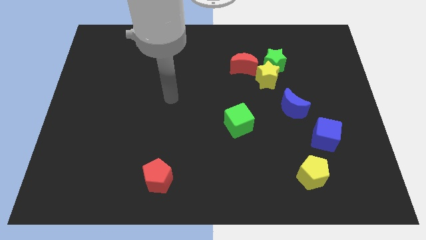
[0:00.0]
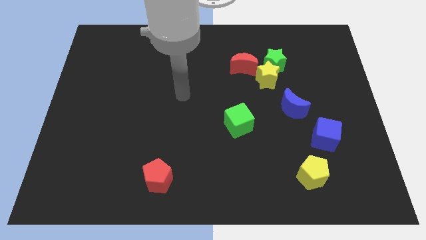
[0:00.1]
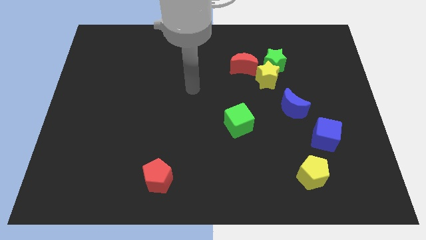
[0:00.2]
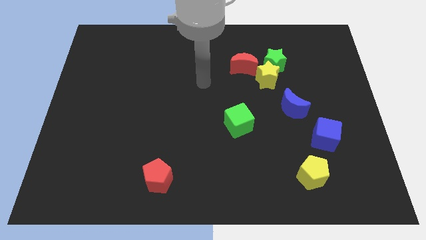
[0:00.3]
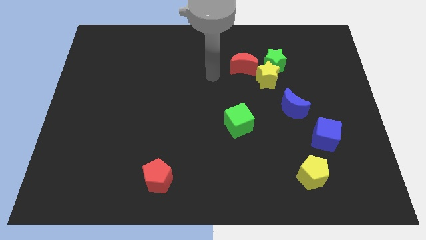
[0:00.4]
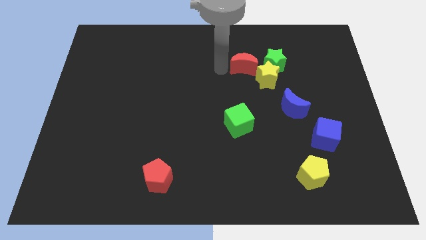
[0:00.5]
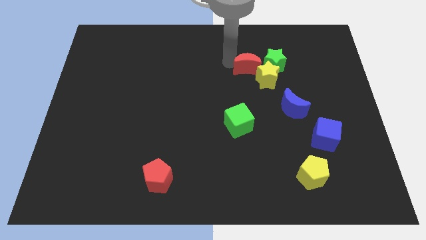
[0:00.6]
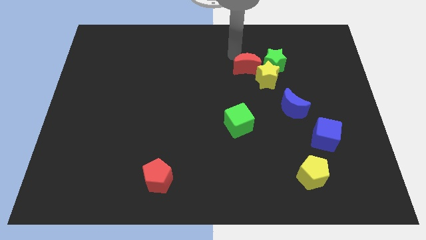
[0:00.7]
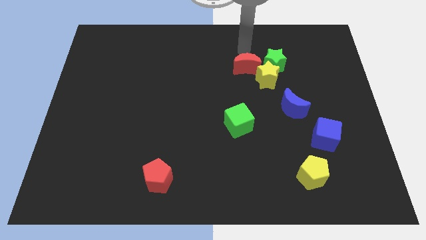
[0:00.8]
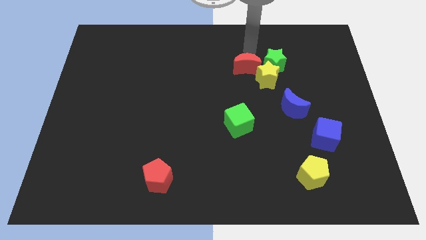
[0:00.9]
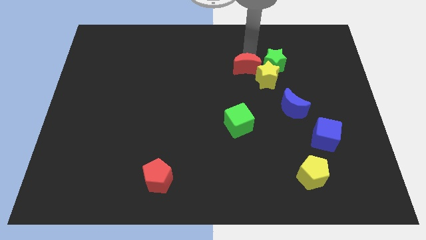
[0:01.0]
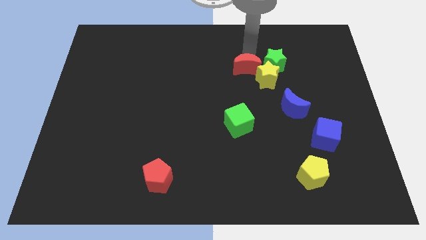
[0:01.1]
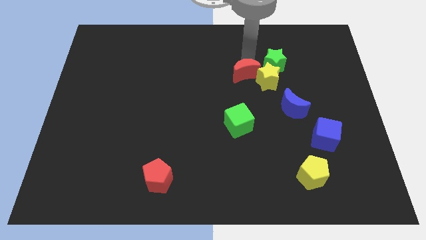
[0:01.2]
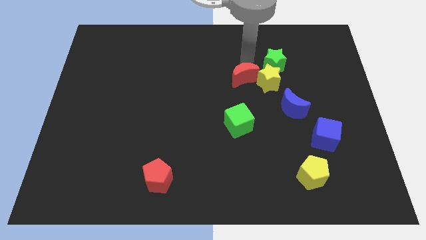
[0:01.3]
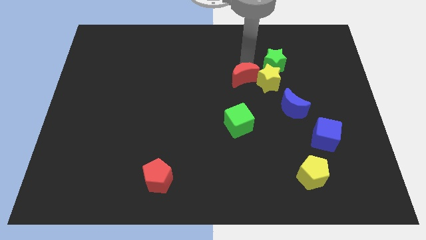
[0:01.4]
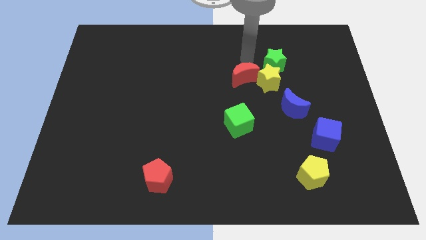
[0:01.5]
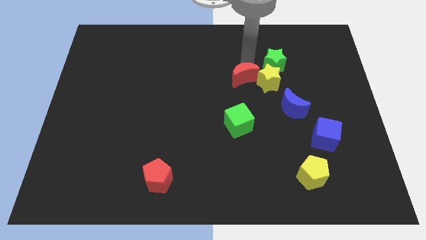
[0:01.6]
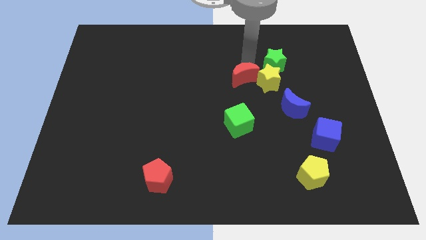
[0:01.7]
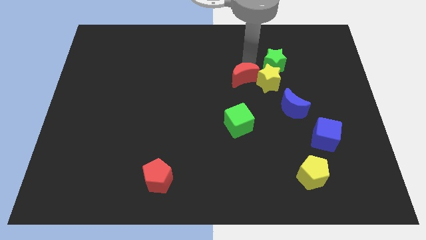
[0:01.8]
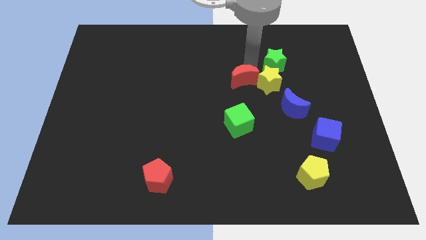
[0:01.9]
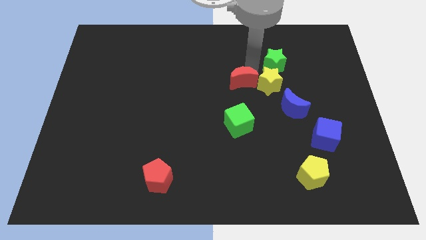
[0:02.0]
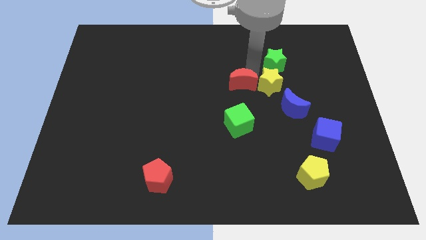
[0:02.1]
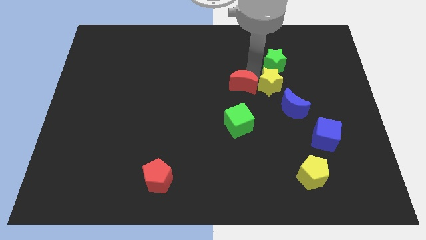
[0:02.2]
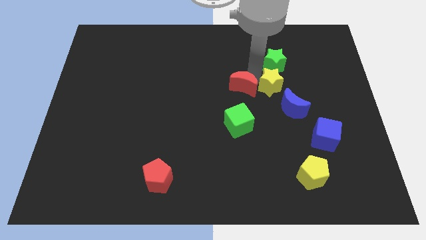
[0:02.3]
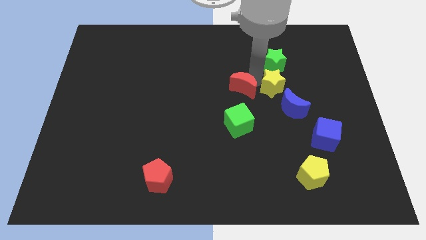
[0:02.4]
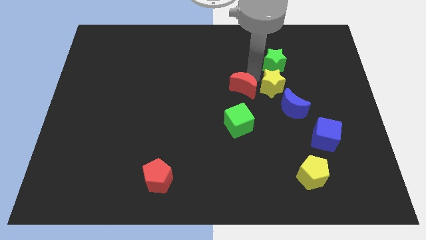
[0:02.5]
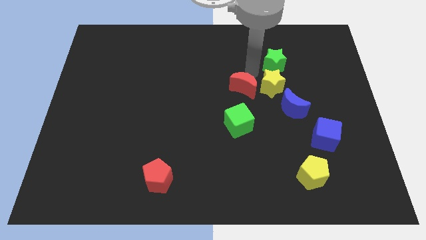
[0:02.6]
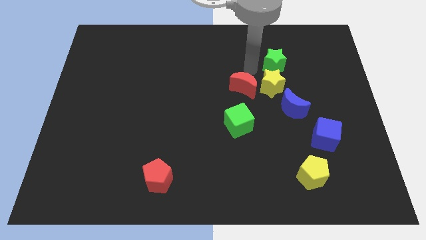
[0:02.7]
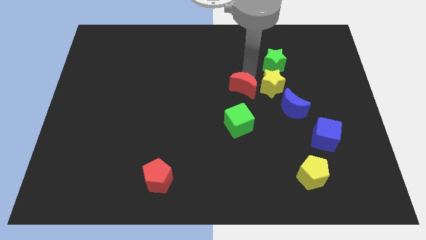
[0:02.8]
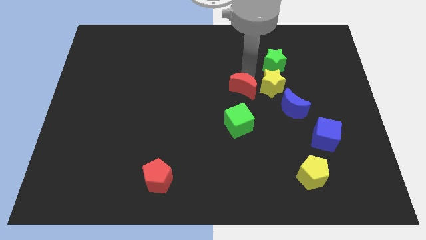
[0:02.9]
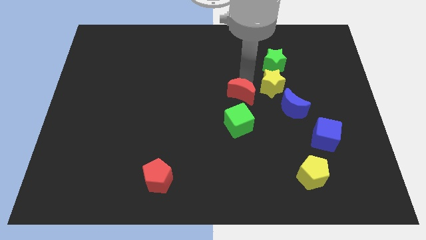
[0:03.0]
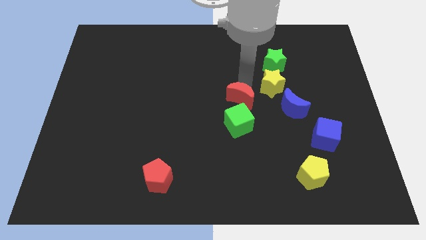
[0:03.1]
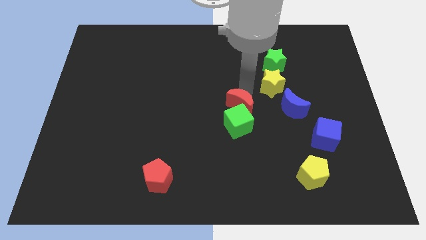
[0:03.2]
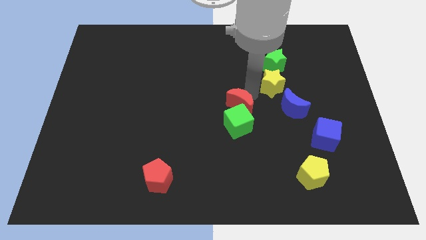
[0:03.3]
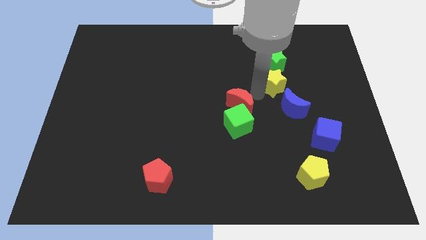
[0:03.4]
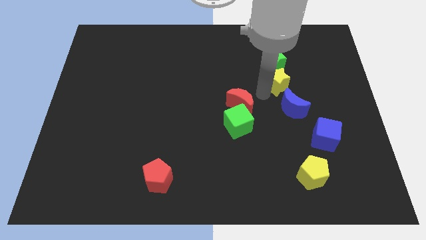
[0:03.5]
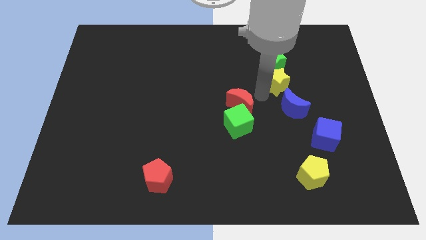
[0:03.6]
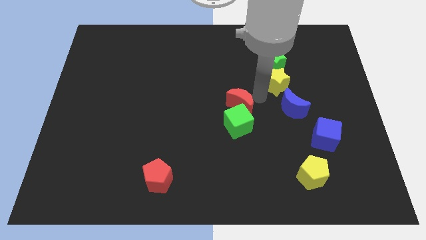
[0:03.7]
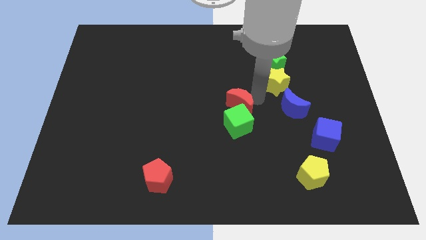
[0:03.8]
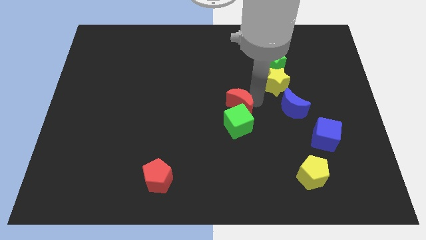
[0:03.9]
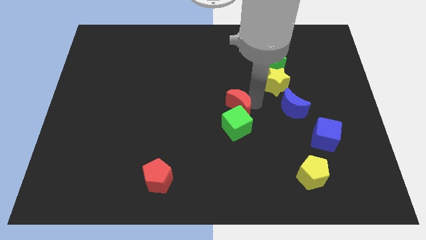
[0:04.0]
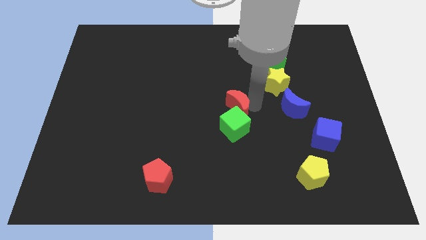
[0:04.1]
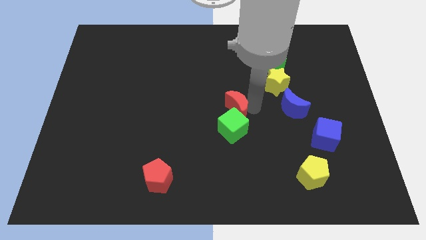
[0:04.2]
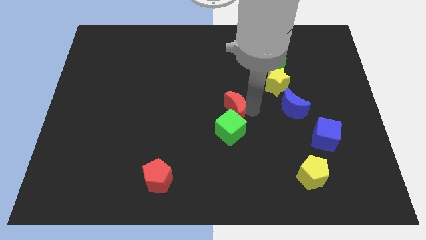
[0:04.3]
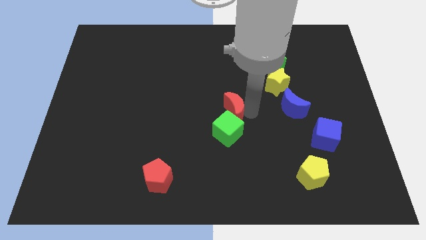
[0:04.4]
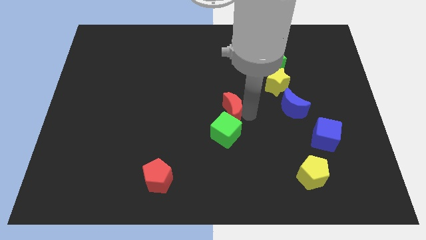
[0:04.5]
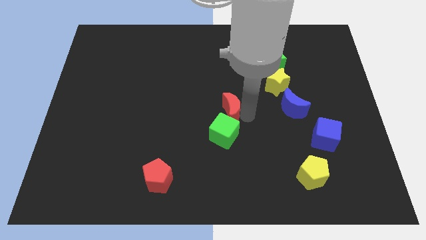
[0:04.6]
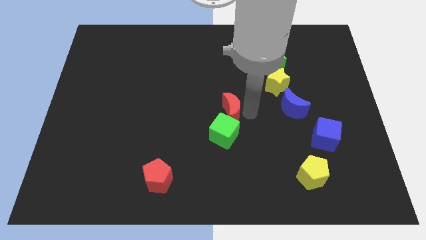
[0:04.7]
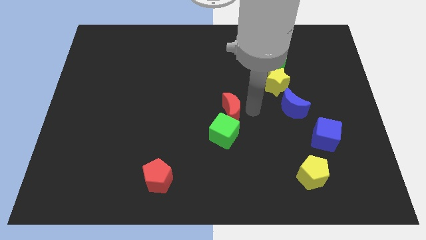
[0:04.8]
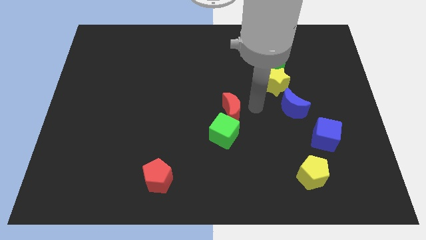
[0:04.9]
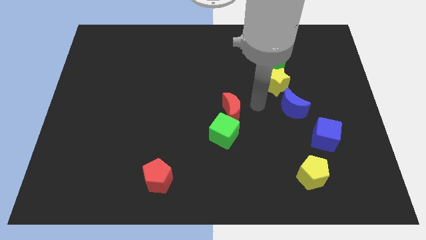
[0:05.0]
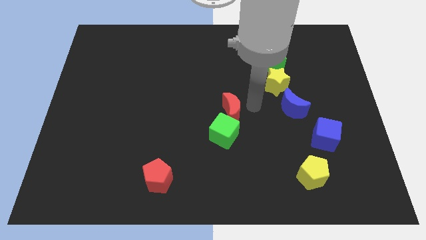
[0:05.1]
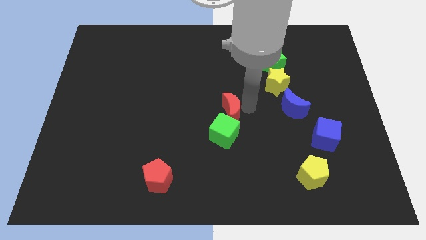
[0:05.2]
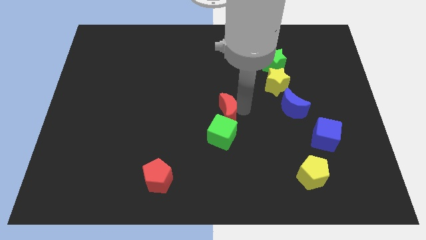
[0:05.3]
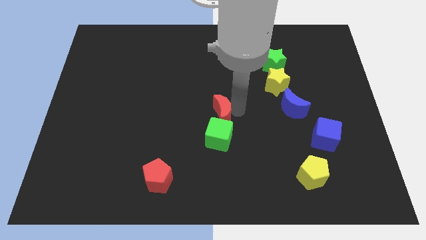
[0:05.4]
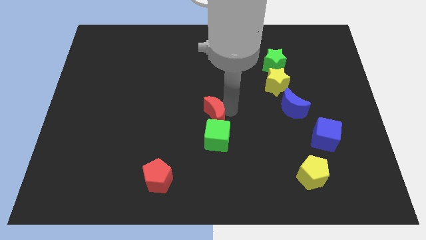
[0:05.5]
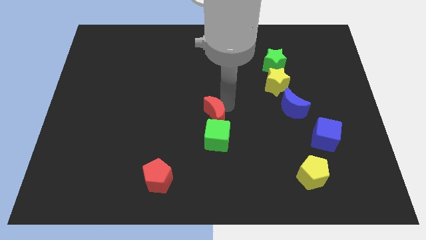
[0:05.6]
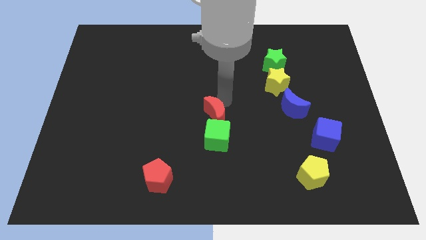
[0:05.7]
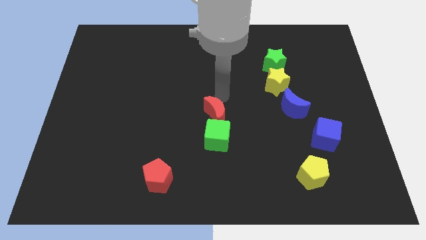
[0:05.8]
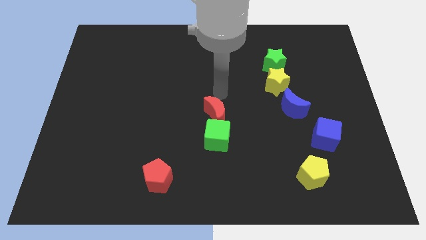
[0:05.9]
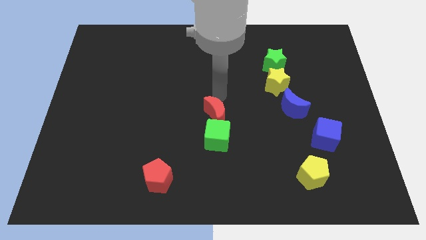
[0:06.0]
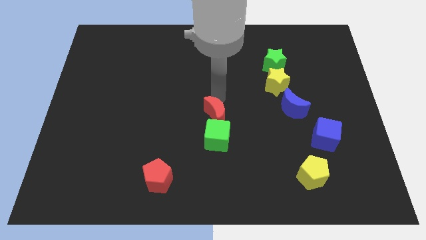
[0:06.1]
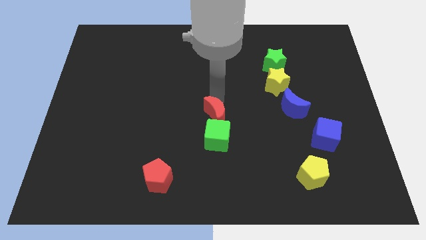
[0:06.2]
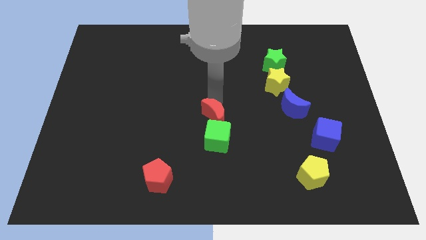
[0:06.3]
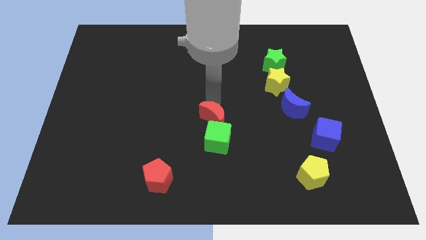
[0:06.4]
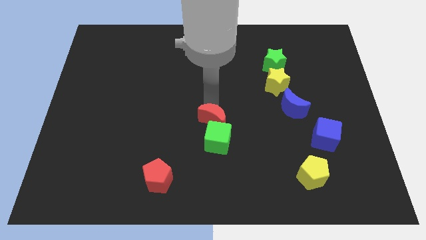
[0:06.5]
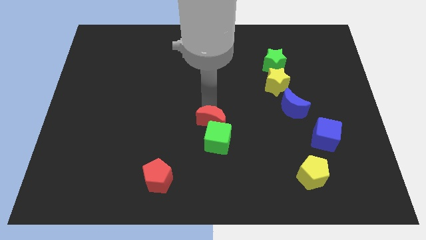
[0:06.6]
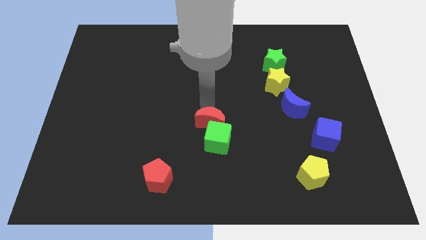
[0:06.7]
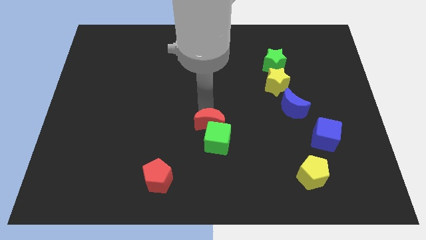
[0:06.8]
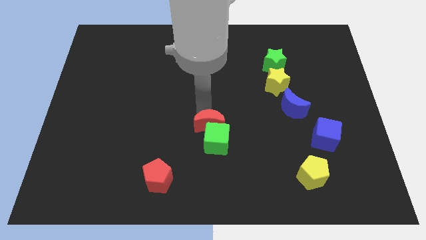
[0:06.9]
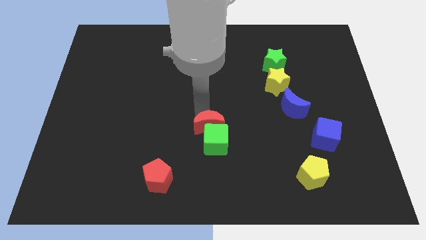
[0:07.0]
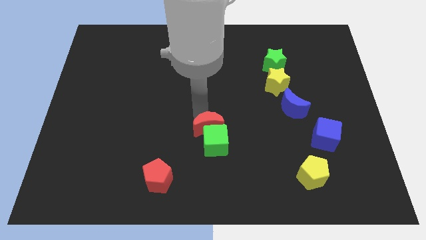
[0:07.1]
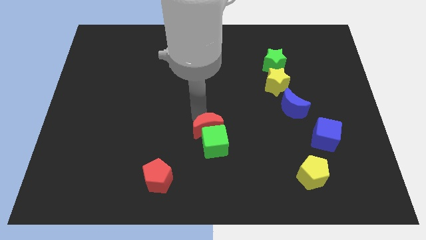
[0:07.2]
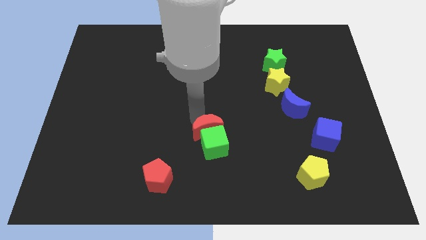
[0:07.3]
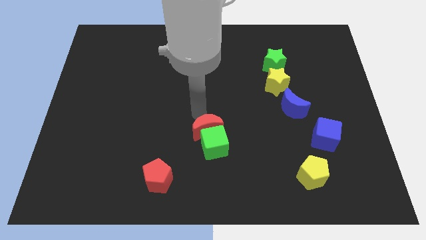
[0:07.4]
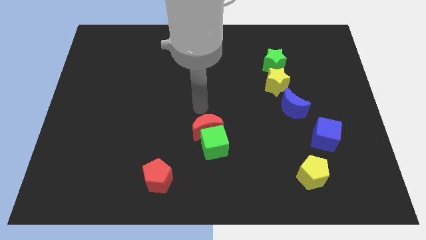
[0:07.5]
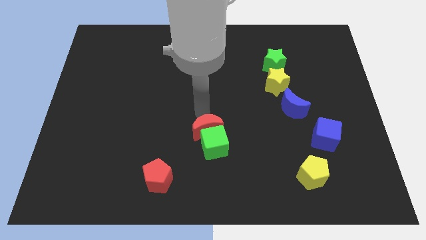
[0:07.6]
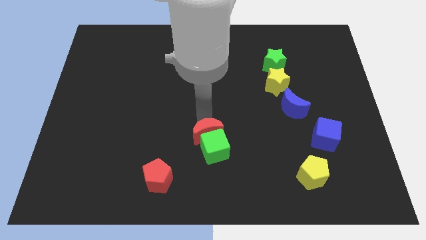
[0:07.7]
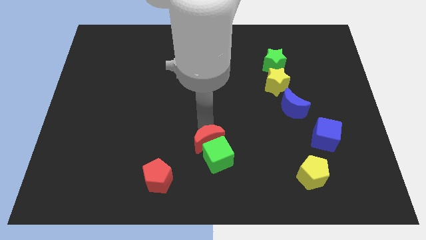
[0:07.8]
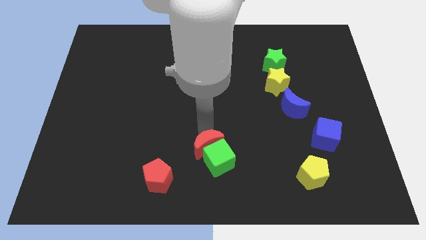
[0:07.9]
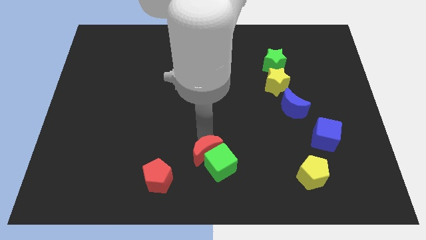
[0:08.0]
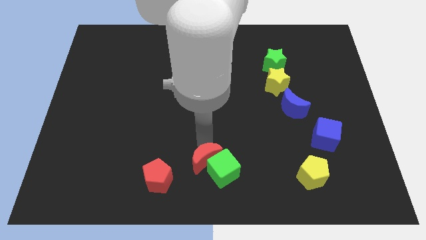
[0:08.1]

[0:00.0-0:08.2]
move the red moon to the bottom
